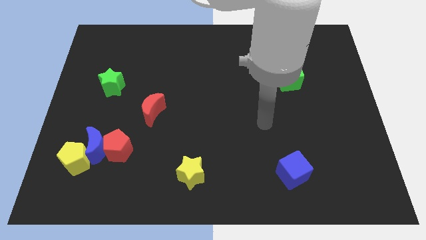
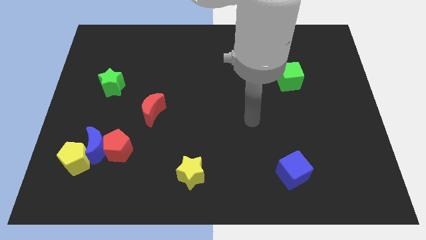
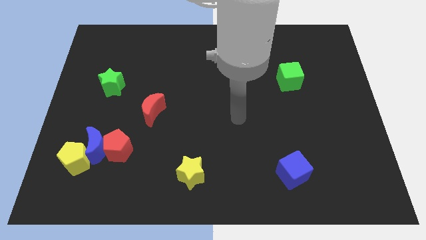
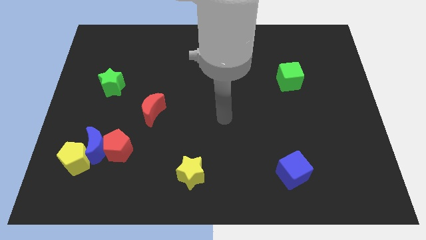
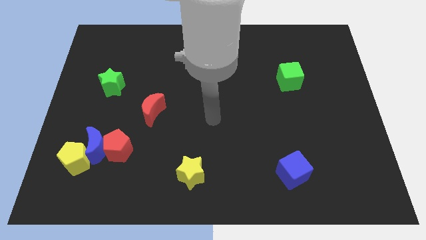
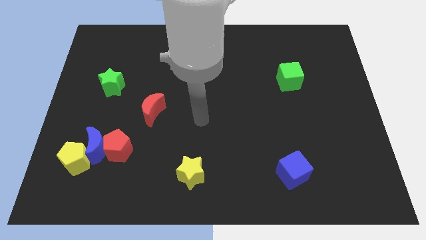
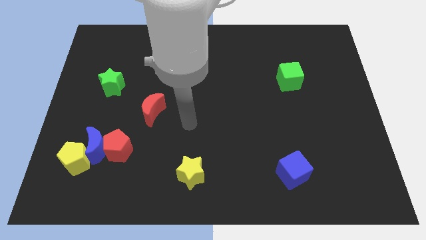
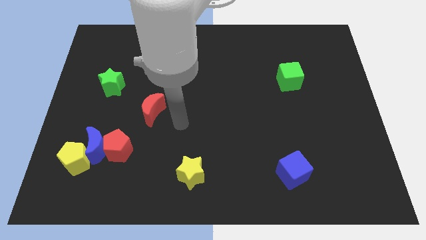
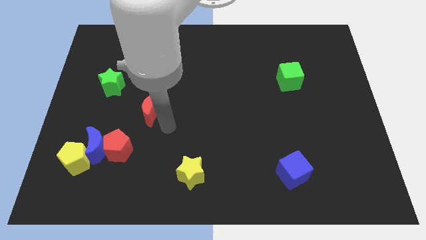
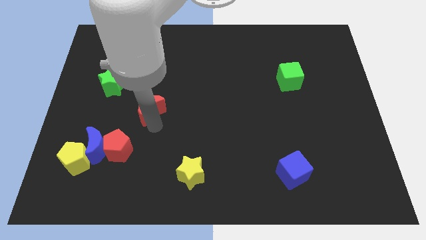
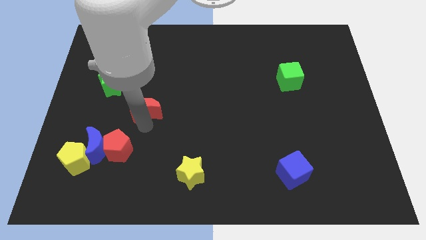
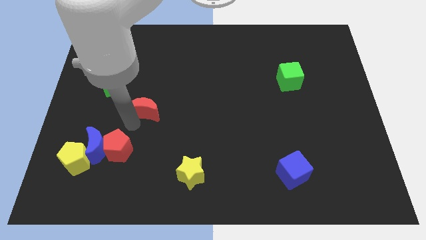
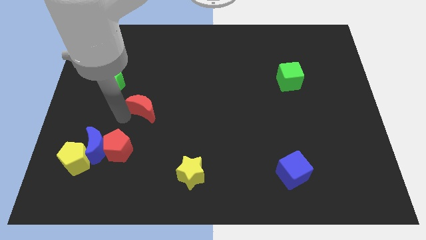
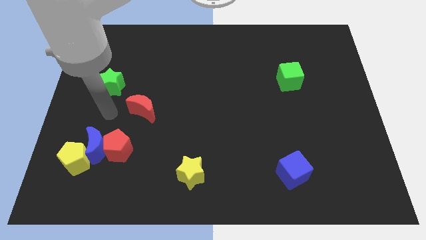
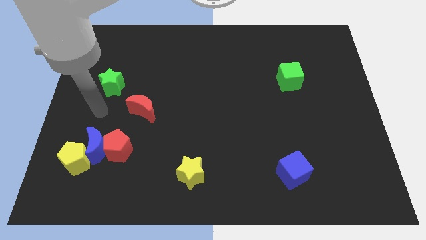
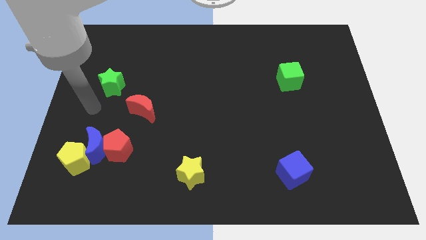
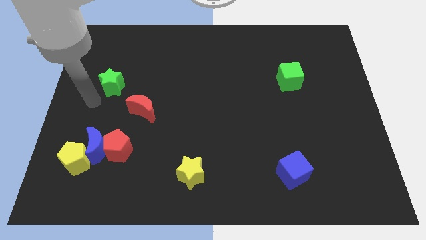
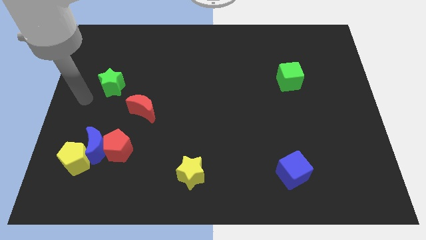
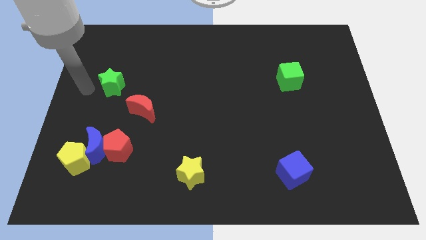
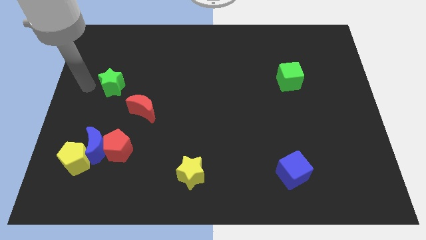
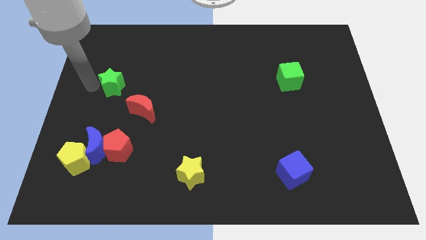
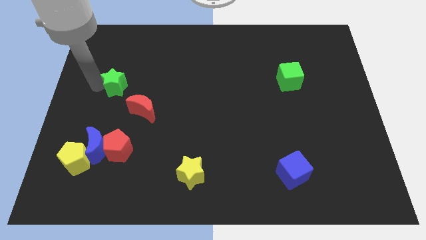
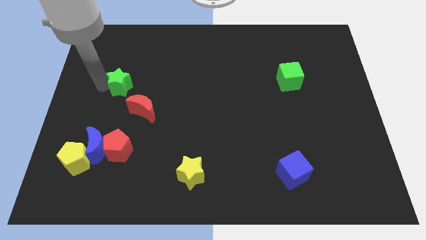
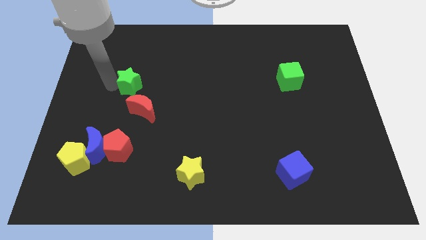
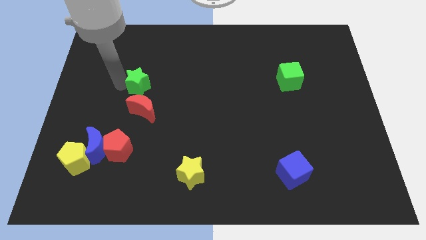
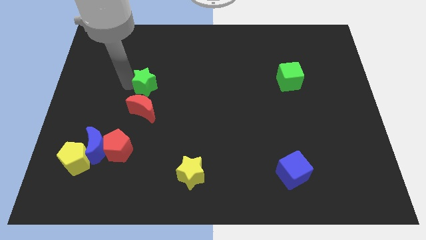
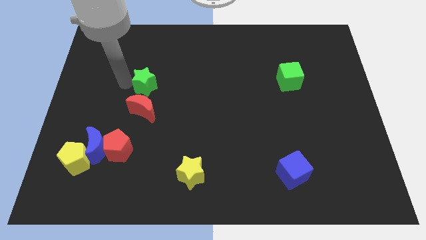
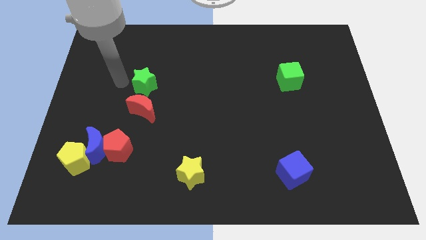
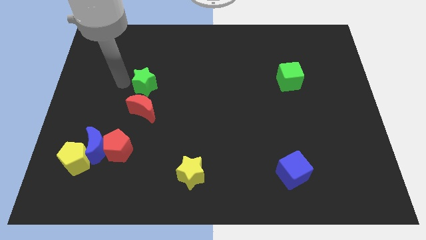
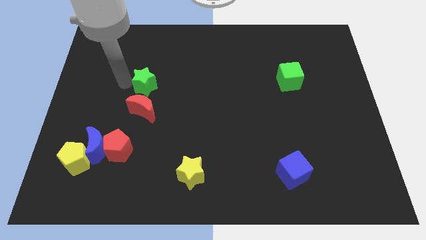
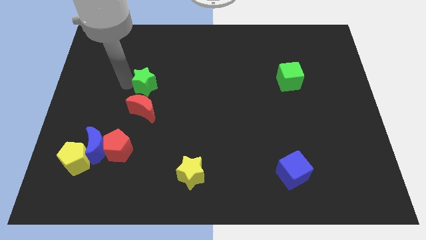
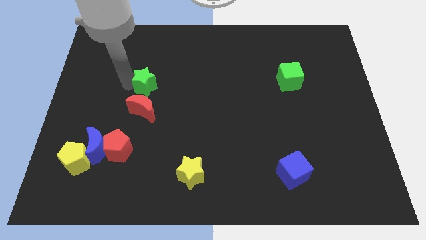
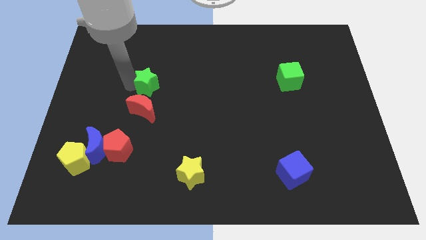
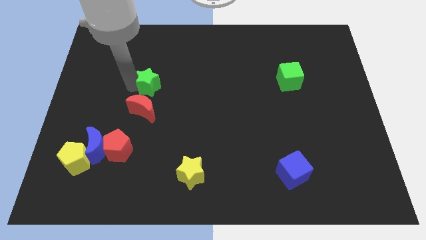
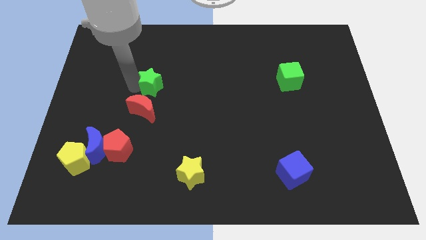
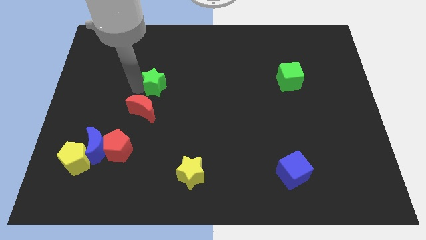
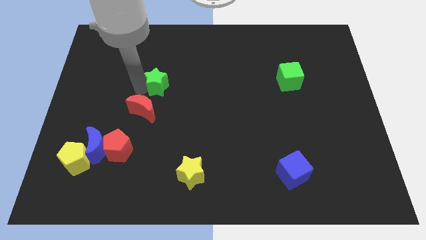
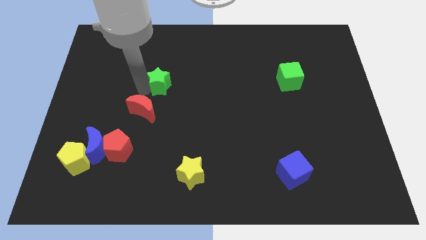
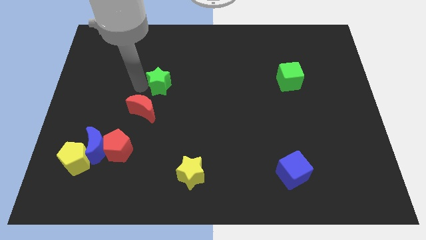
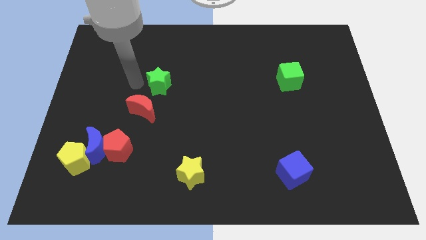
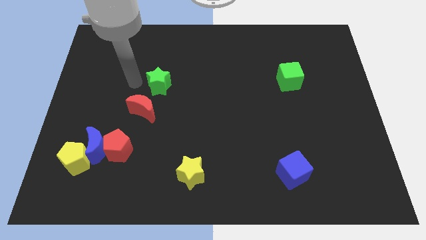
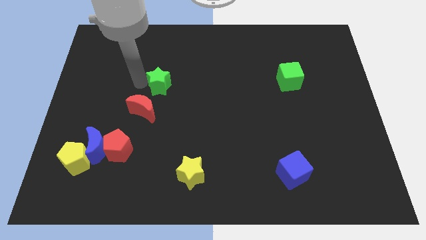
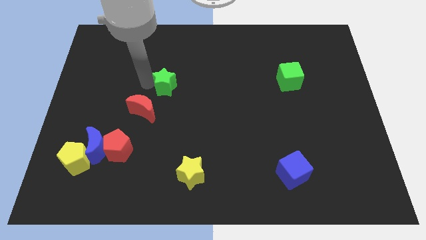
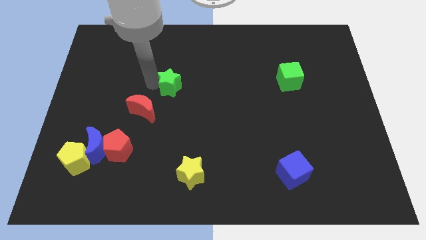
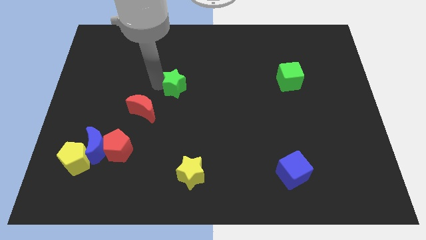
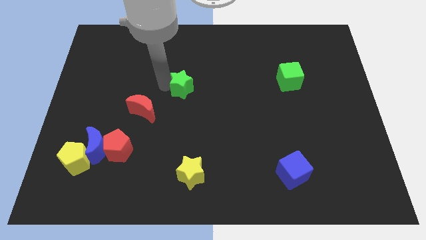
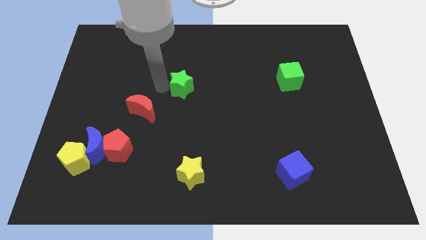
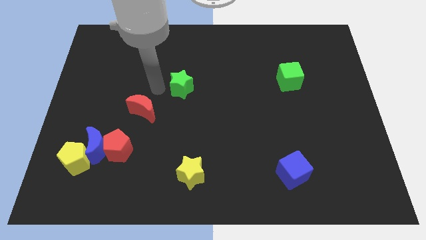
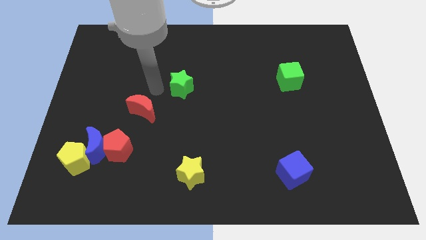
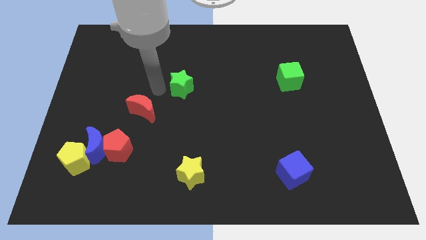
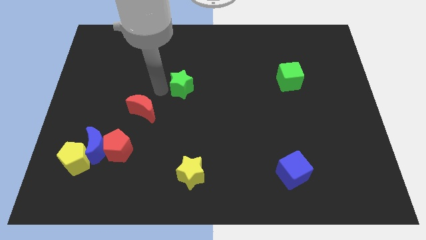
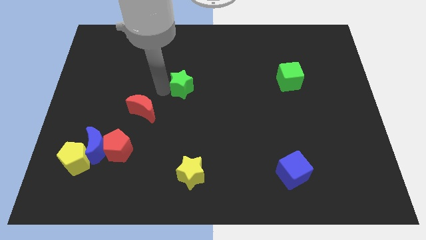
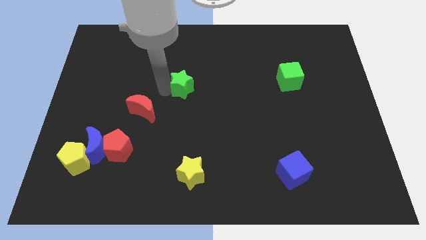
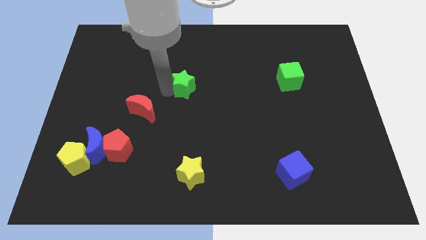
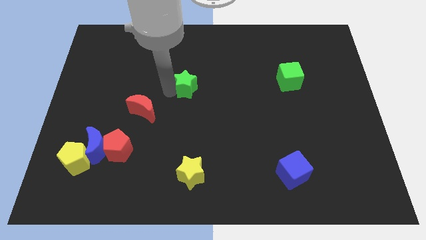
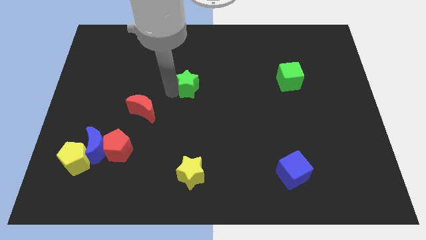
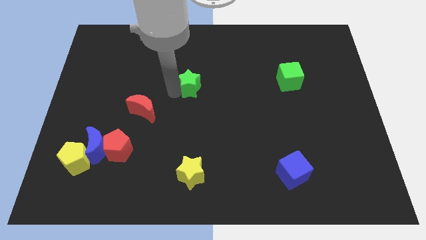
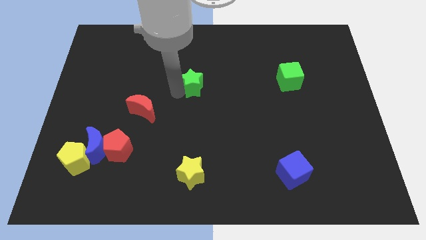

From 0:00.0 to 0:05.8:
move the green star right

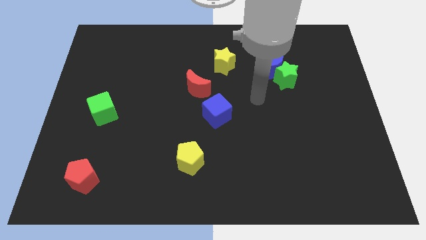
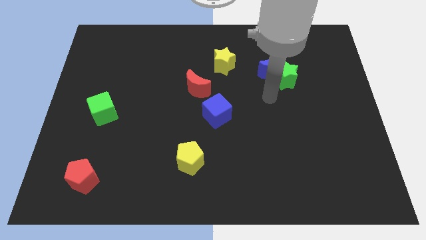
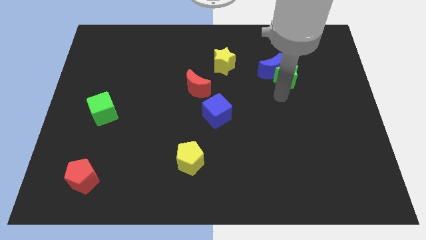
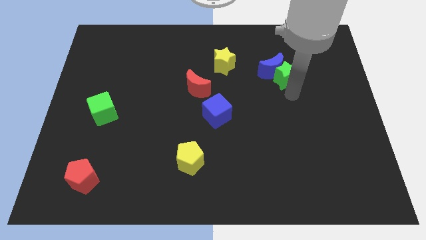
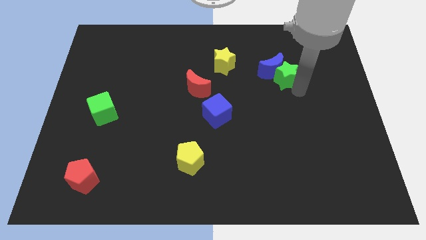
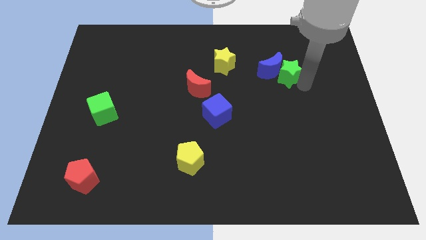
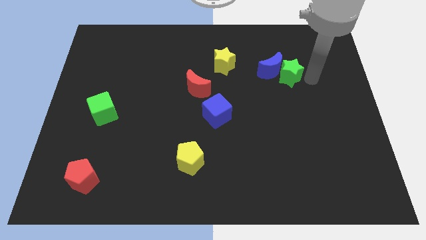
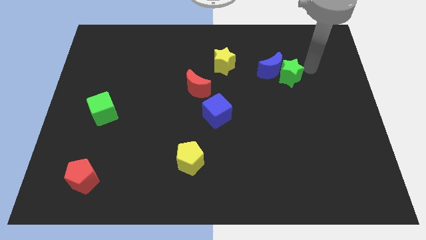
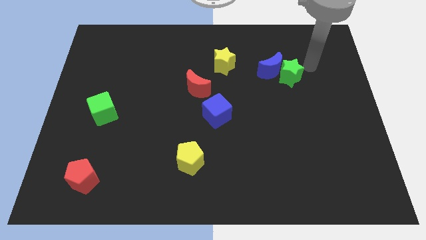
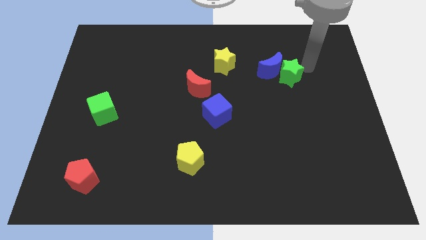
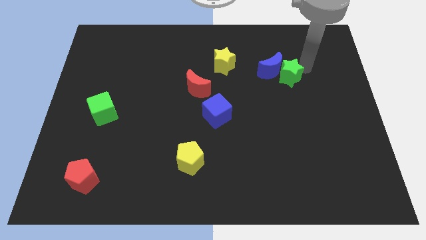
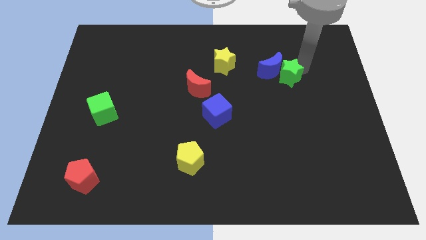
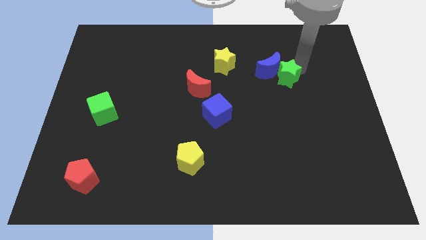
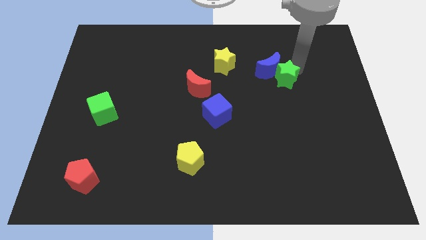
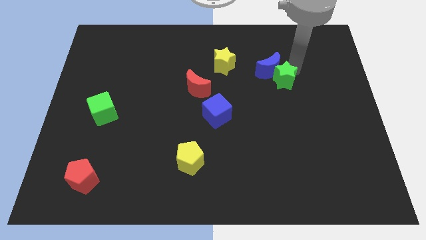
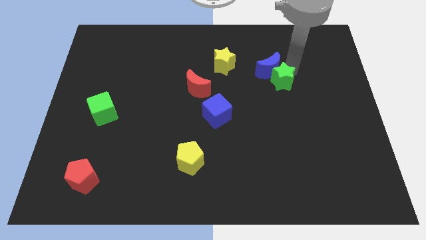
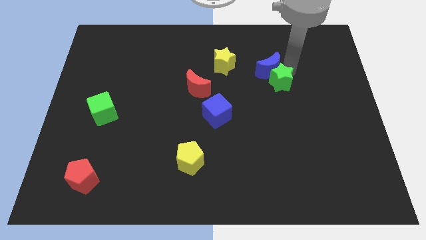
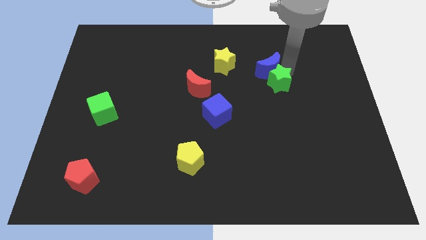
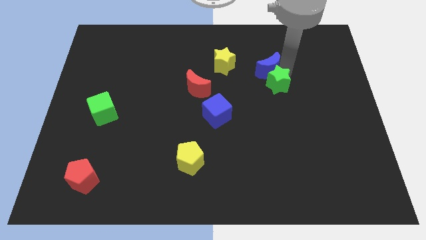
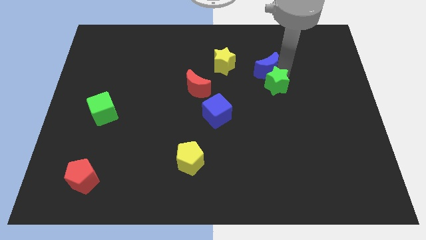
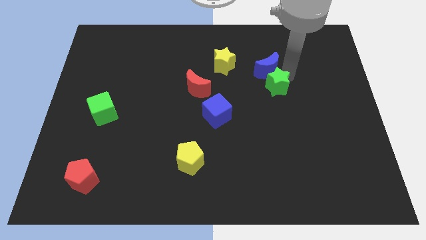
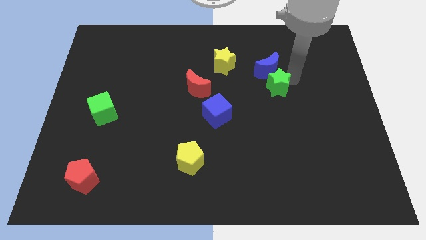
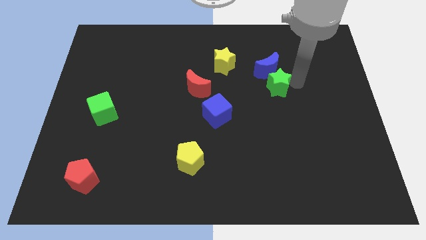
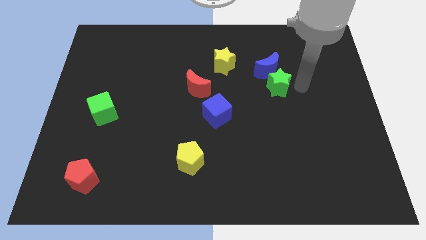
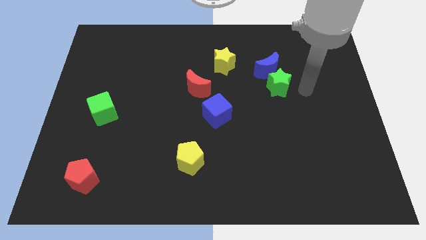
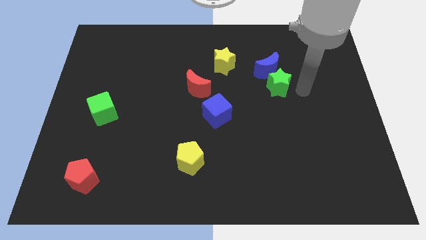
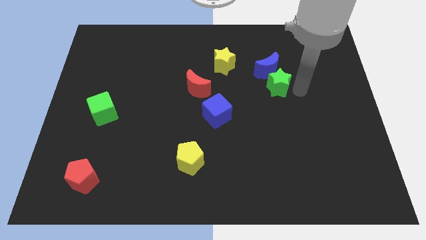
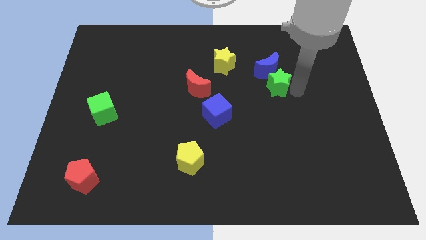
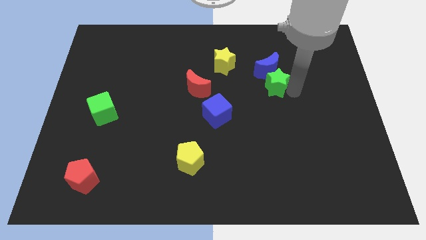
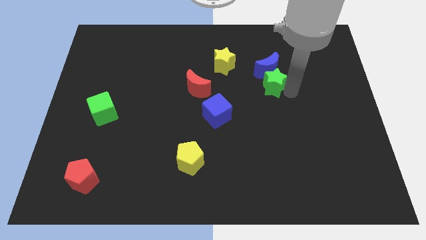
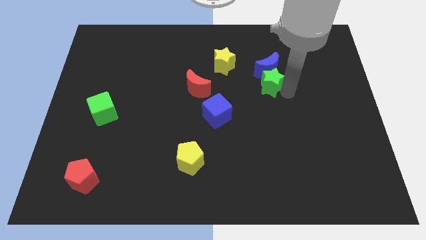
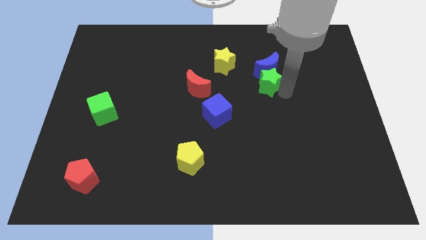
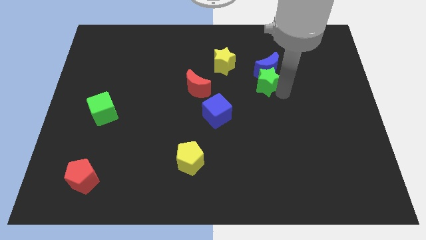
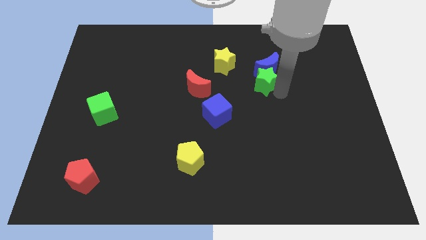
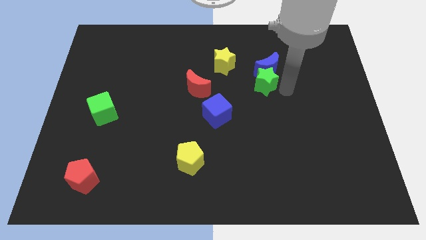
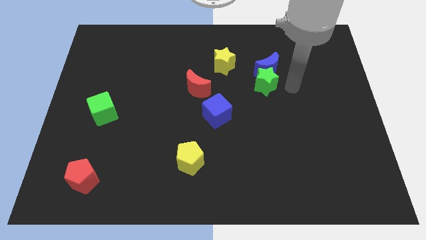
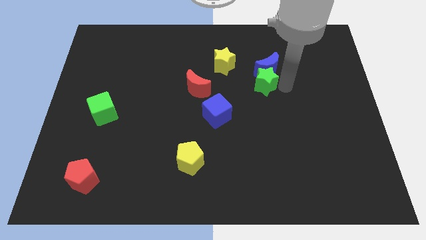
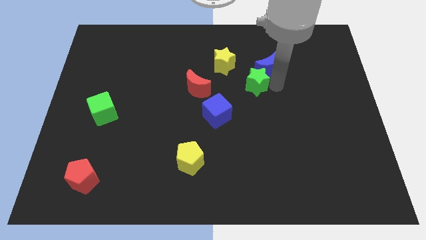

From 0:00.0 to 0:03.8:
push the green star slightly left
